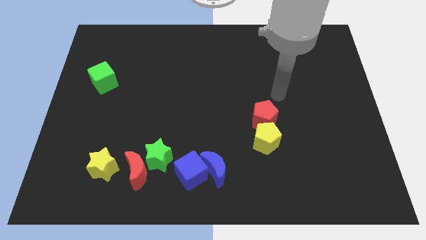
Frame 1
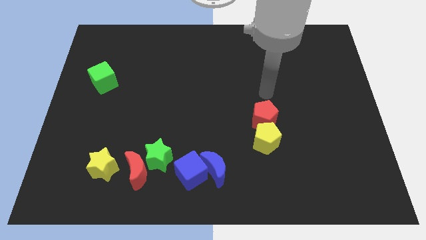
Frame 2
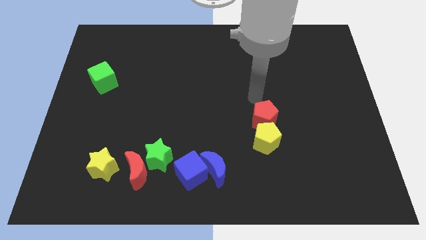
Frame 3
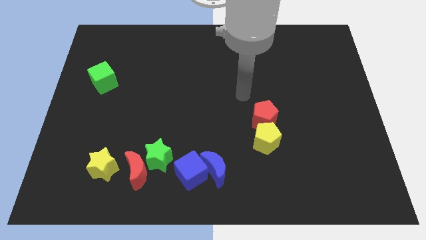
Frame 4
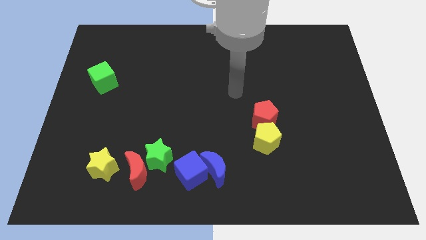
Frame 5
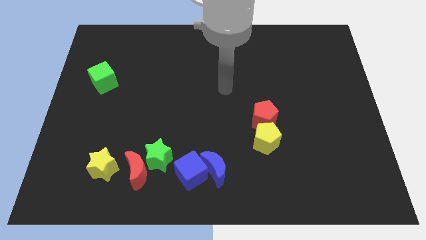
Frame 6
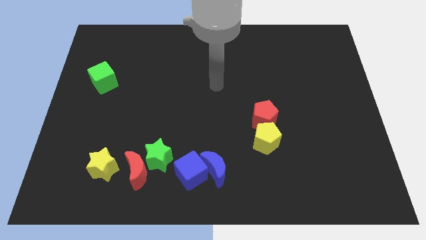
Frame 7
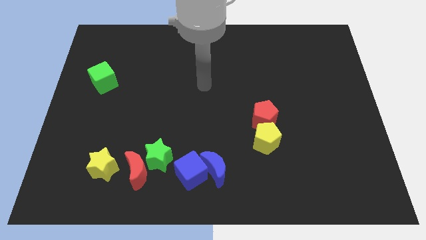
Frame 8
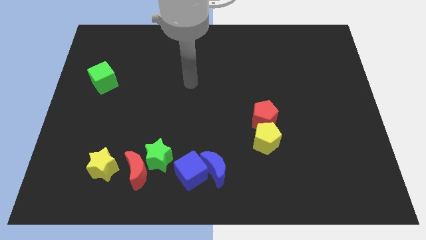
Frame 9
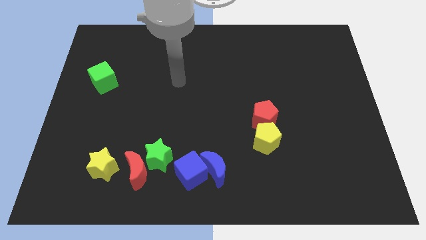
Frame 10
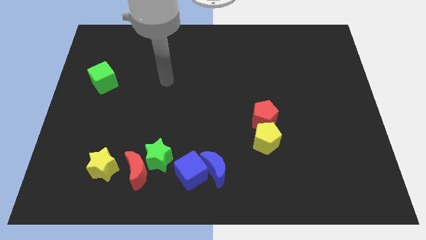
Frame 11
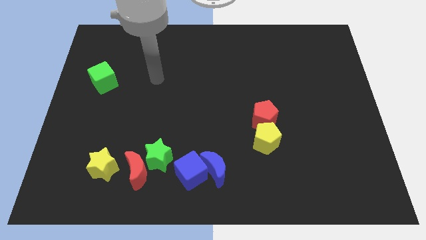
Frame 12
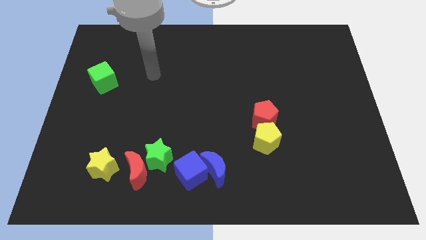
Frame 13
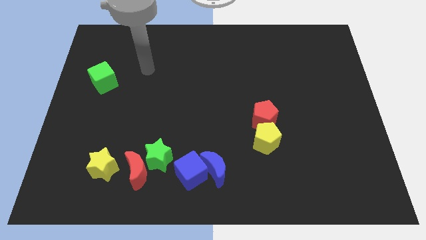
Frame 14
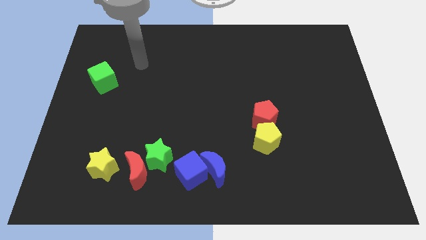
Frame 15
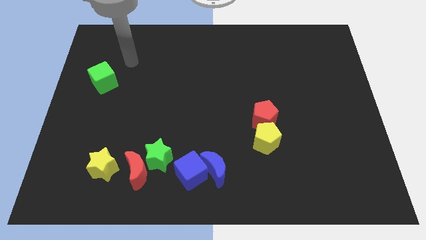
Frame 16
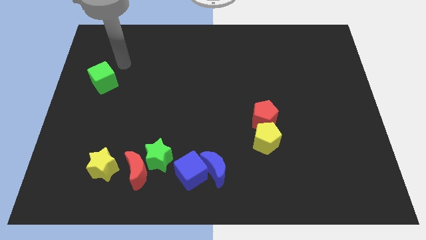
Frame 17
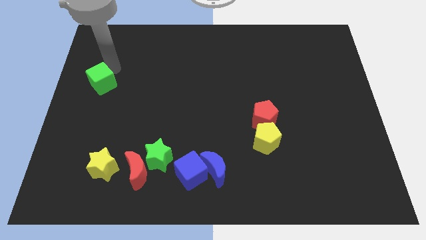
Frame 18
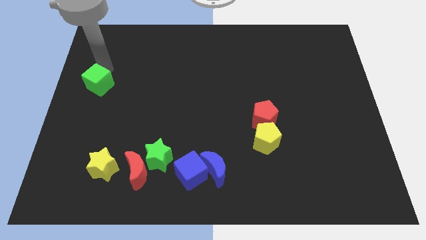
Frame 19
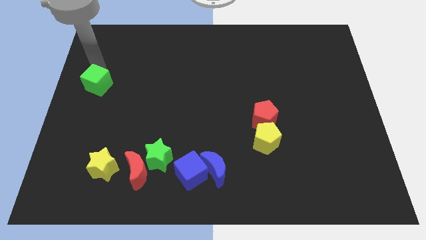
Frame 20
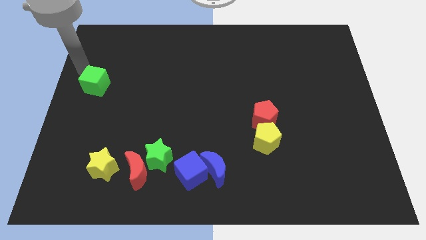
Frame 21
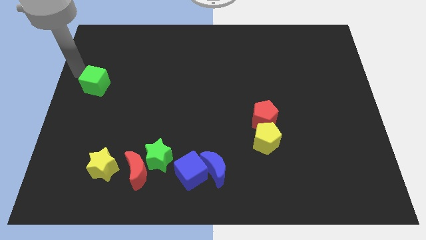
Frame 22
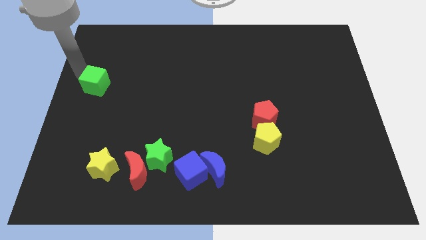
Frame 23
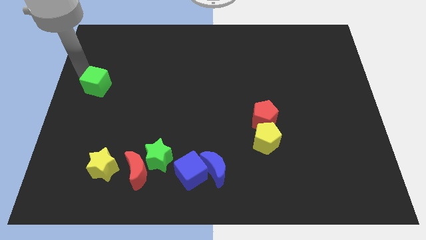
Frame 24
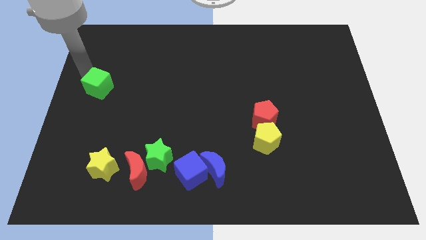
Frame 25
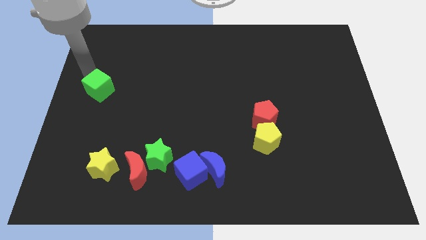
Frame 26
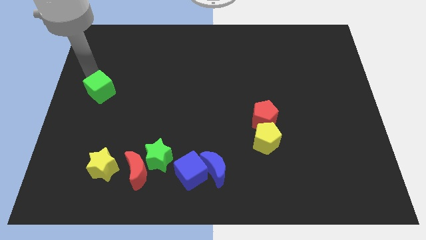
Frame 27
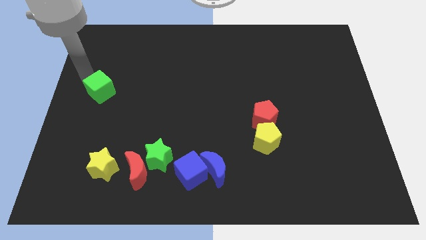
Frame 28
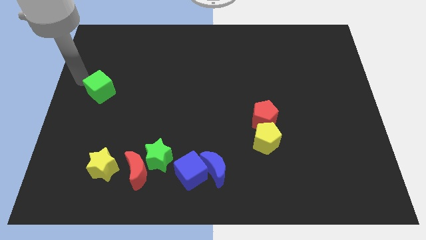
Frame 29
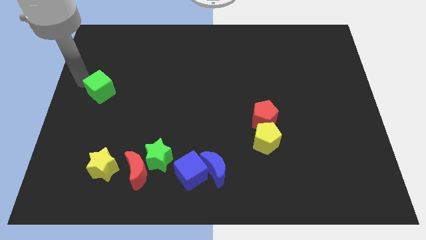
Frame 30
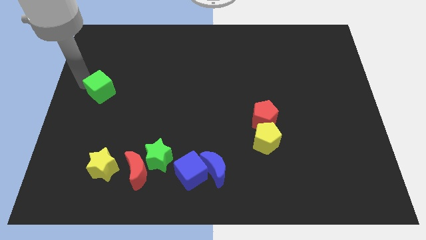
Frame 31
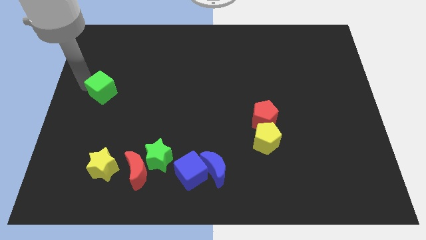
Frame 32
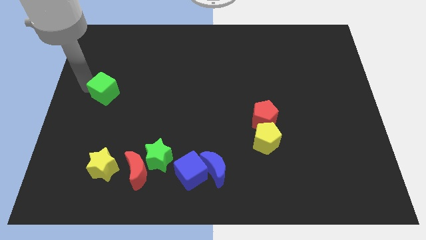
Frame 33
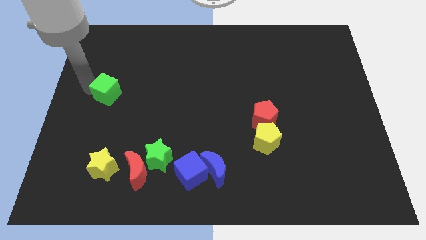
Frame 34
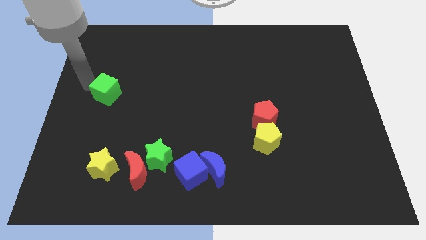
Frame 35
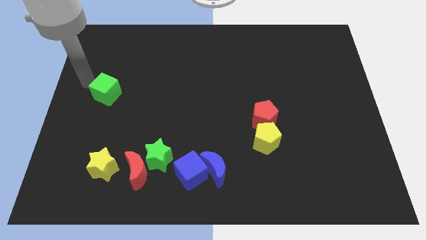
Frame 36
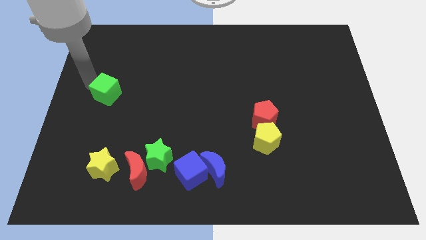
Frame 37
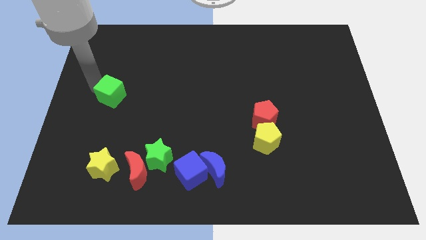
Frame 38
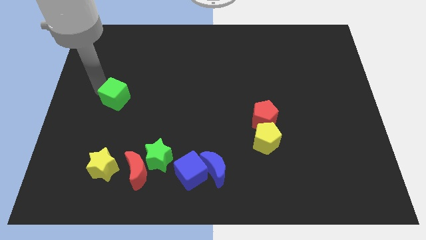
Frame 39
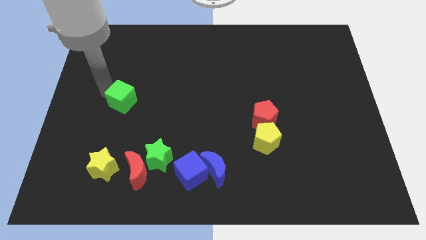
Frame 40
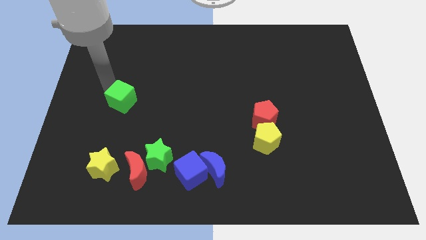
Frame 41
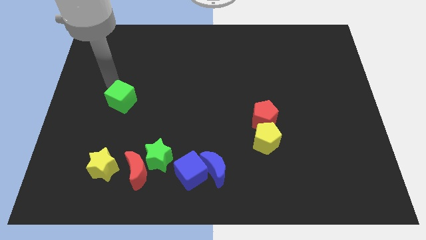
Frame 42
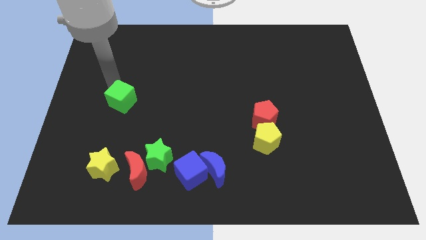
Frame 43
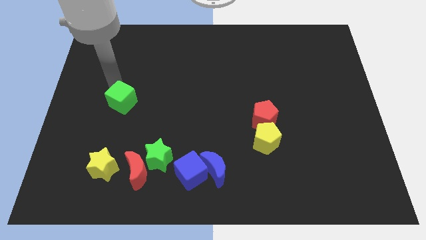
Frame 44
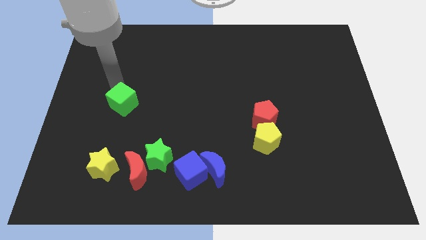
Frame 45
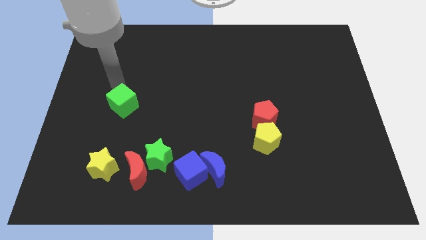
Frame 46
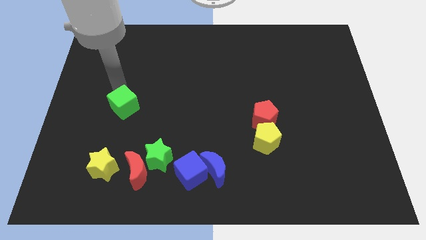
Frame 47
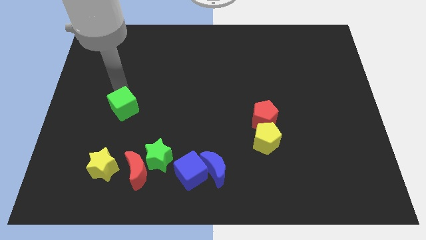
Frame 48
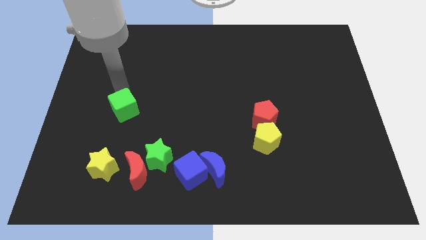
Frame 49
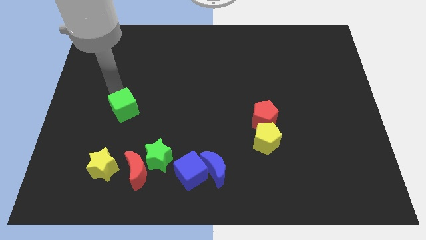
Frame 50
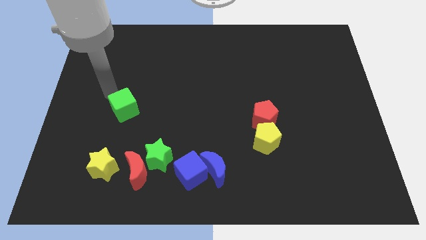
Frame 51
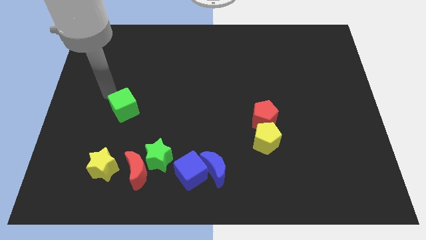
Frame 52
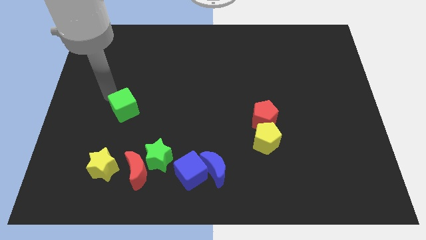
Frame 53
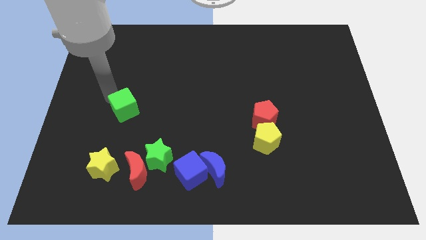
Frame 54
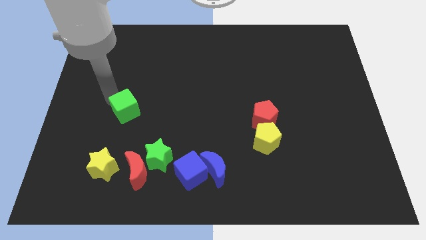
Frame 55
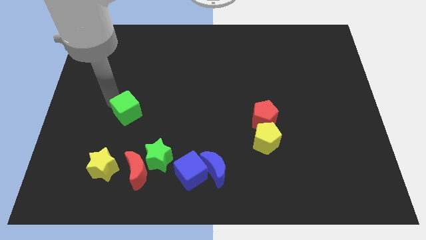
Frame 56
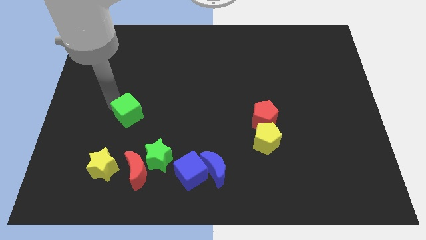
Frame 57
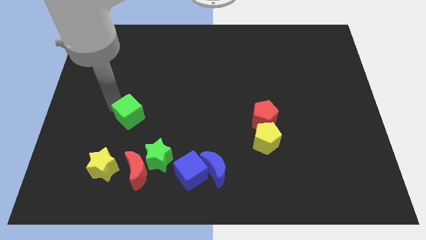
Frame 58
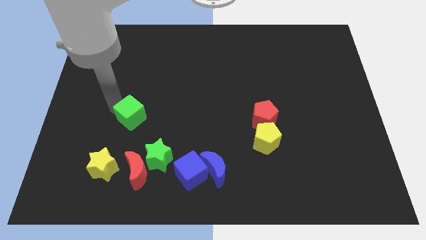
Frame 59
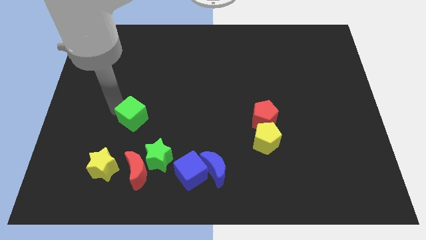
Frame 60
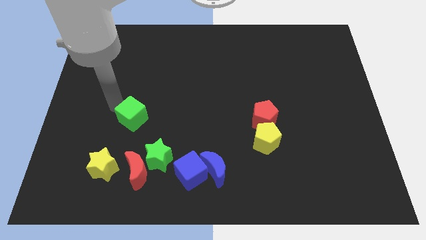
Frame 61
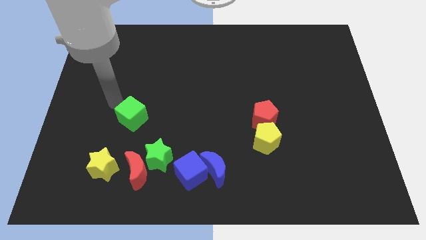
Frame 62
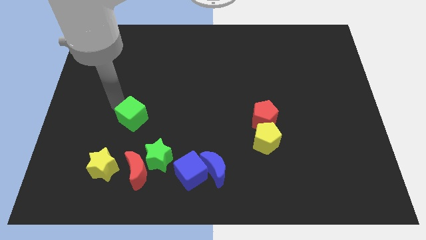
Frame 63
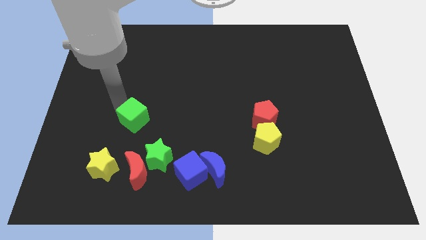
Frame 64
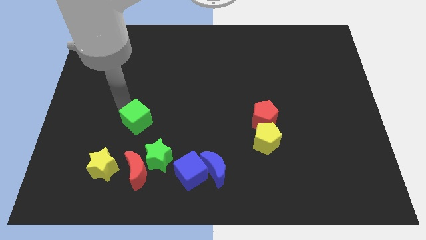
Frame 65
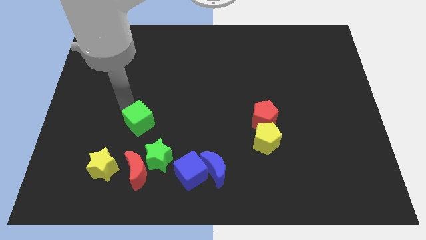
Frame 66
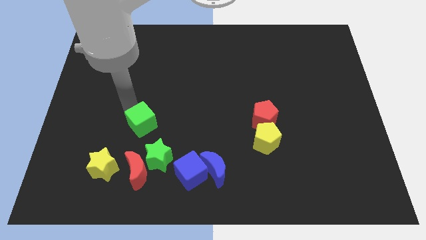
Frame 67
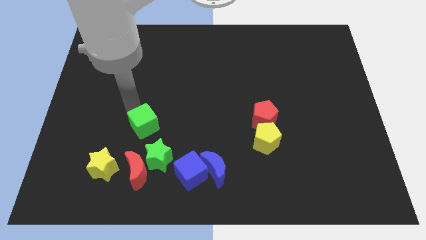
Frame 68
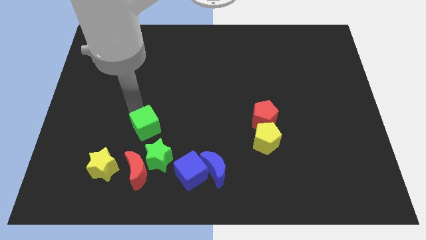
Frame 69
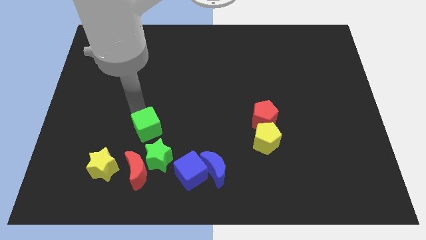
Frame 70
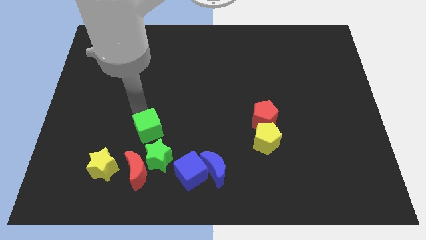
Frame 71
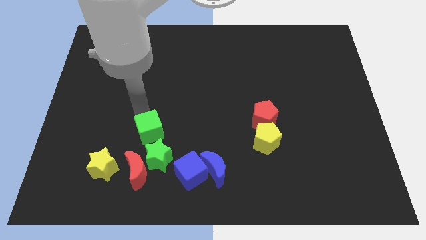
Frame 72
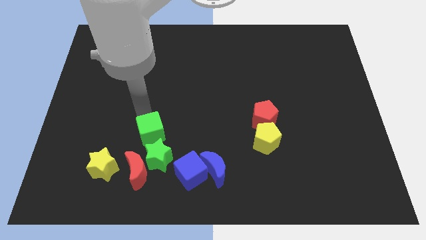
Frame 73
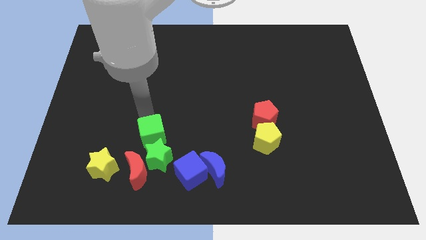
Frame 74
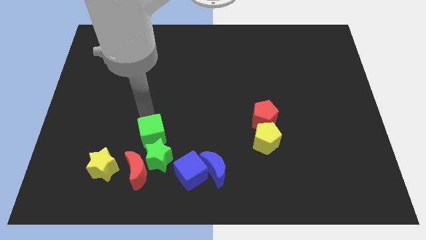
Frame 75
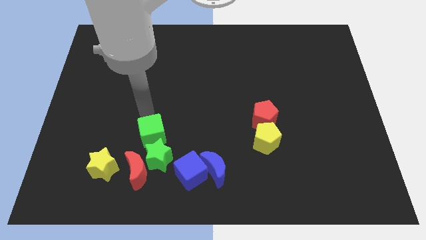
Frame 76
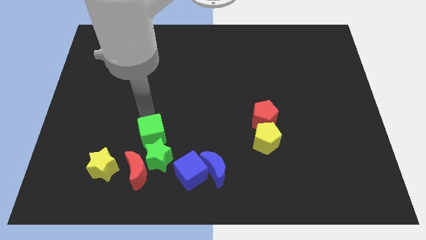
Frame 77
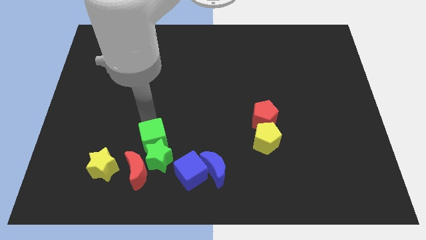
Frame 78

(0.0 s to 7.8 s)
push the green cube close to the green star
